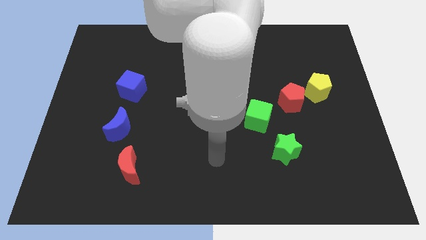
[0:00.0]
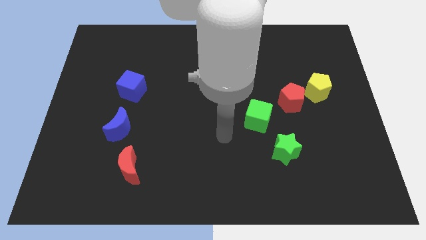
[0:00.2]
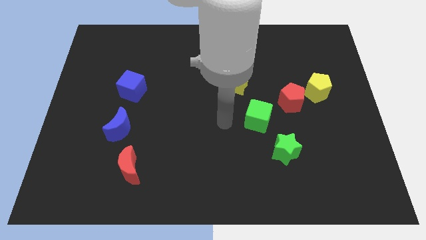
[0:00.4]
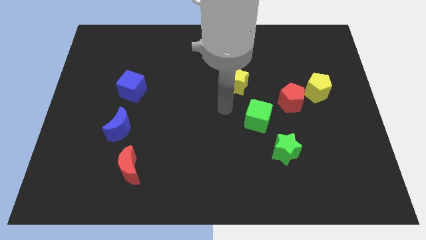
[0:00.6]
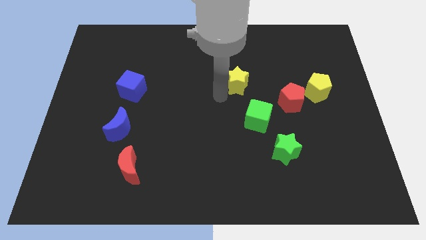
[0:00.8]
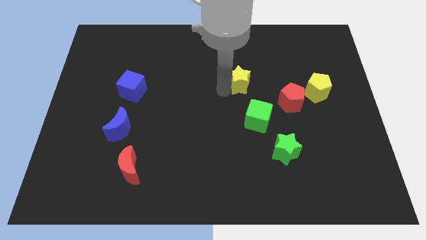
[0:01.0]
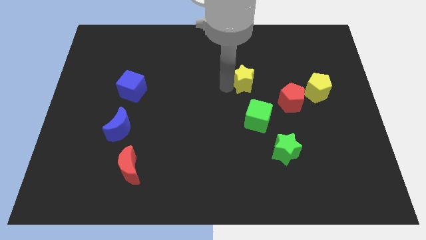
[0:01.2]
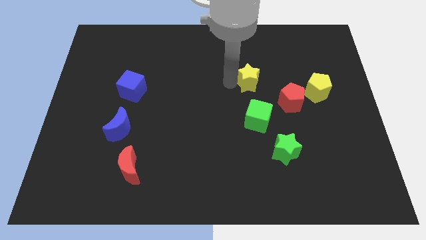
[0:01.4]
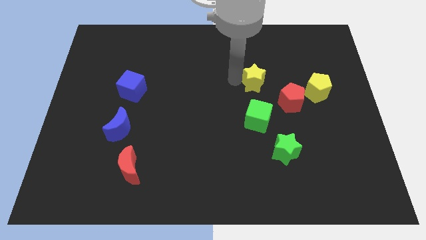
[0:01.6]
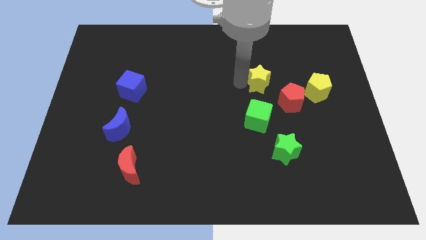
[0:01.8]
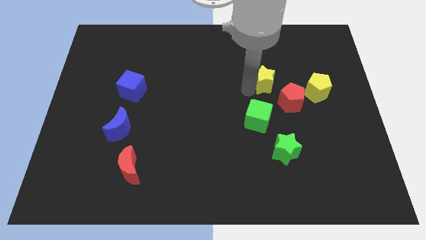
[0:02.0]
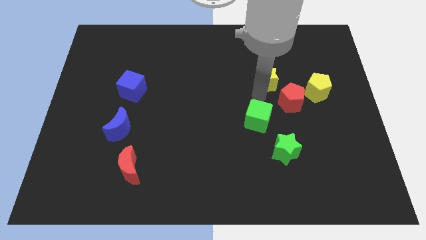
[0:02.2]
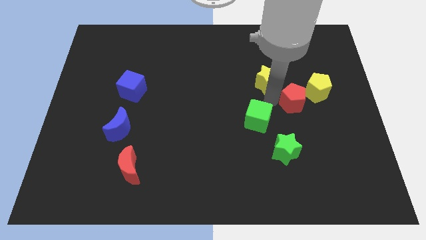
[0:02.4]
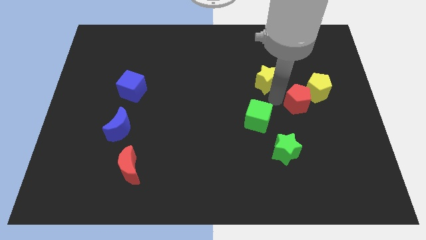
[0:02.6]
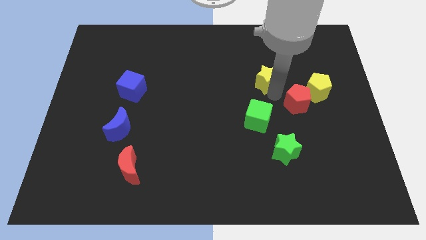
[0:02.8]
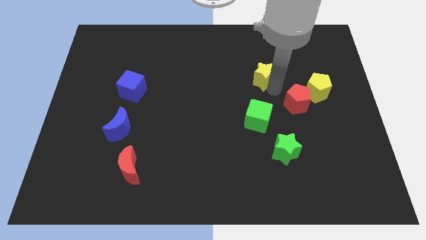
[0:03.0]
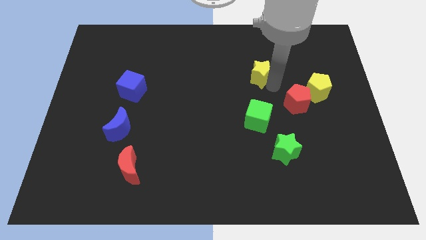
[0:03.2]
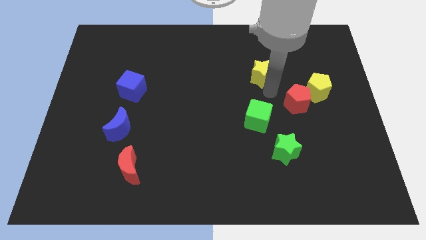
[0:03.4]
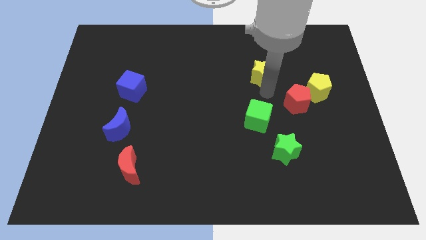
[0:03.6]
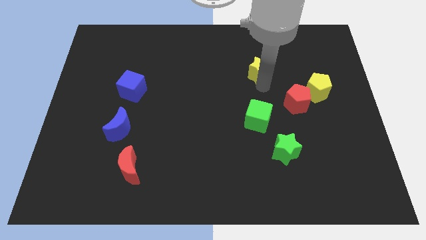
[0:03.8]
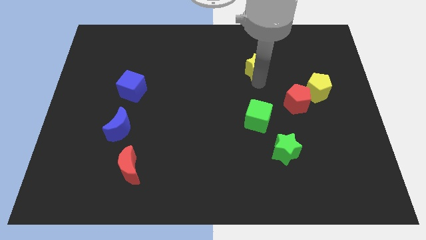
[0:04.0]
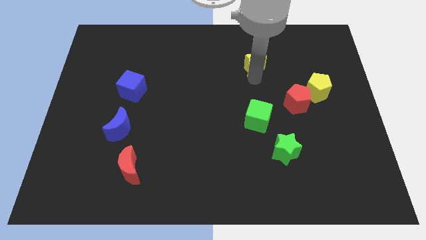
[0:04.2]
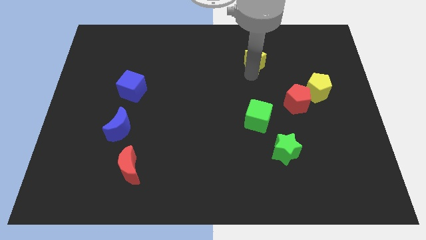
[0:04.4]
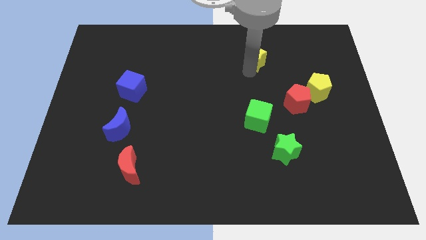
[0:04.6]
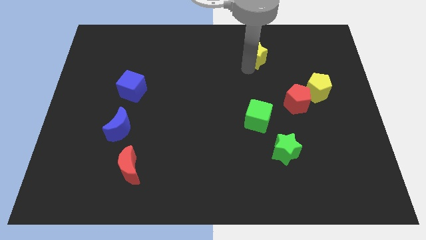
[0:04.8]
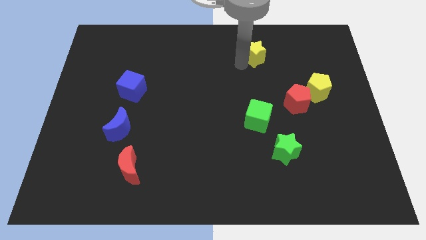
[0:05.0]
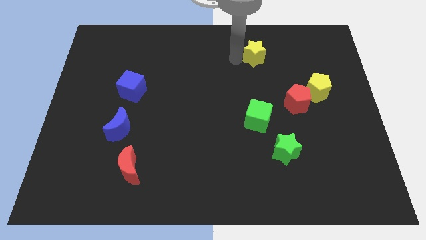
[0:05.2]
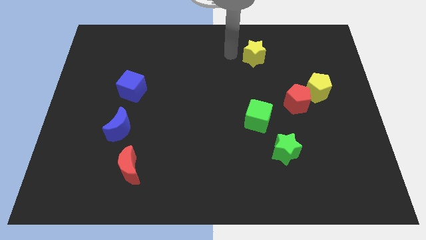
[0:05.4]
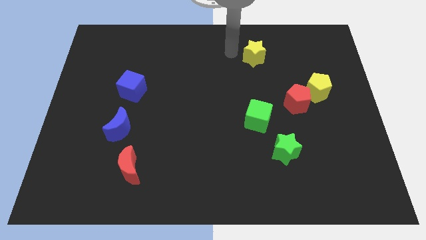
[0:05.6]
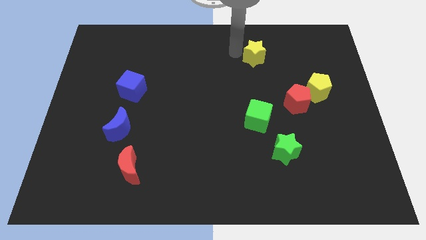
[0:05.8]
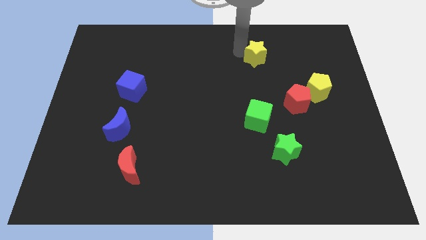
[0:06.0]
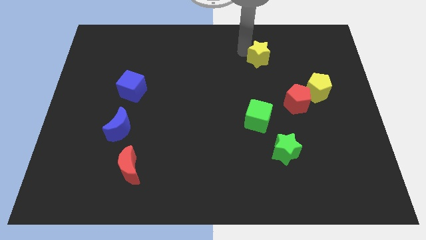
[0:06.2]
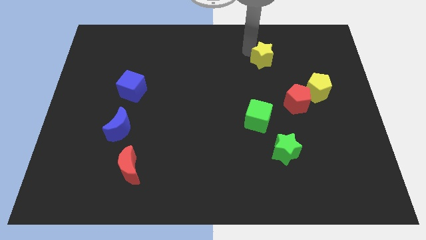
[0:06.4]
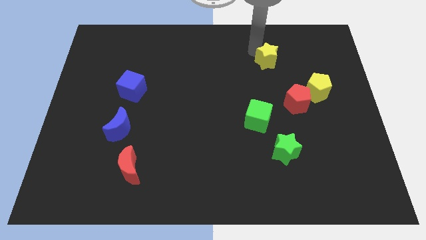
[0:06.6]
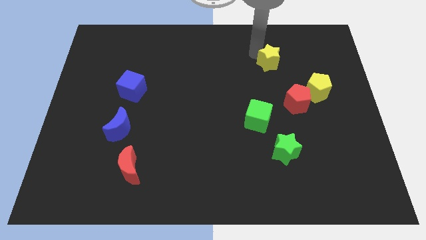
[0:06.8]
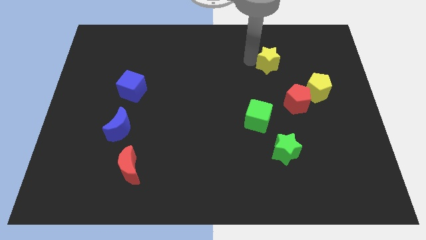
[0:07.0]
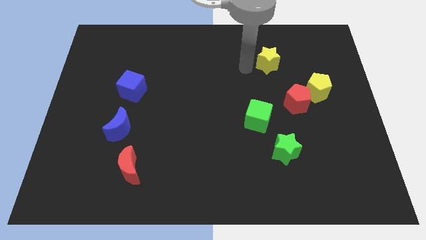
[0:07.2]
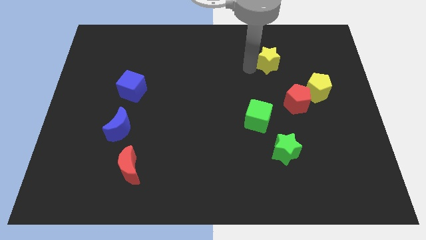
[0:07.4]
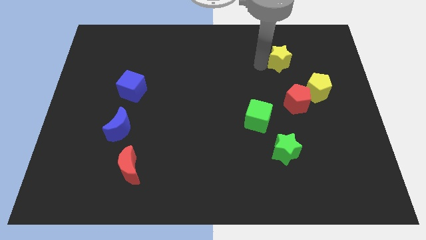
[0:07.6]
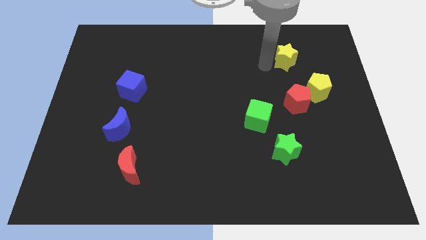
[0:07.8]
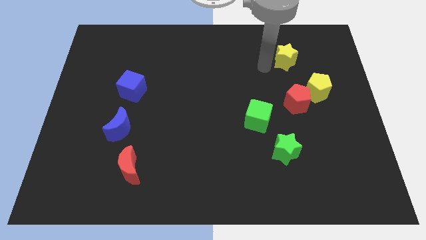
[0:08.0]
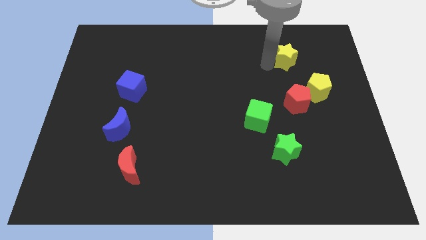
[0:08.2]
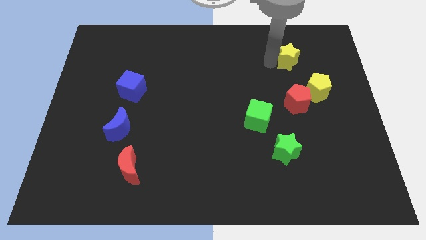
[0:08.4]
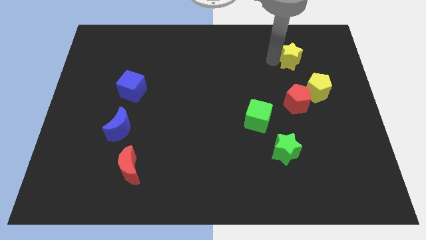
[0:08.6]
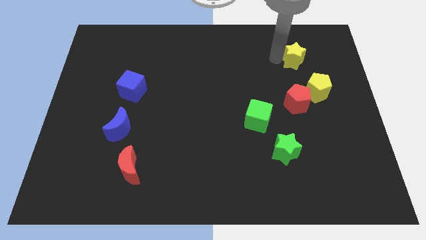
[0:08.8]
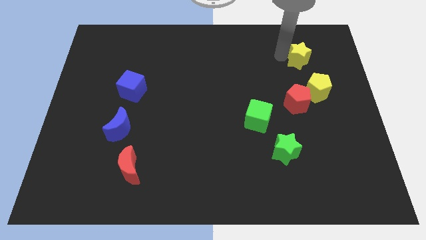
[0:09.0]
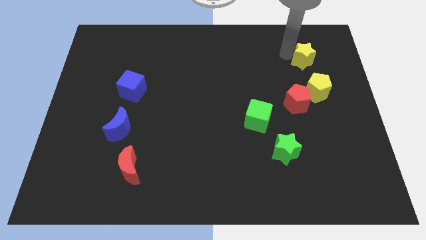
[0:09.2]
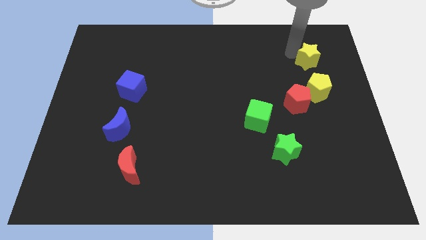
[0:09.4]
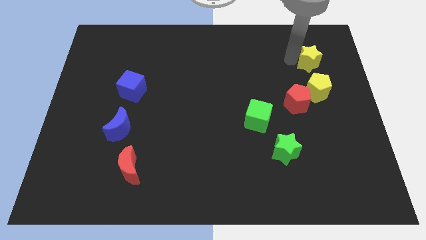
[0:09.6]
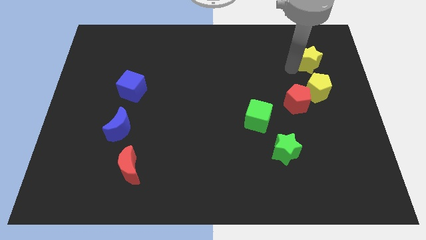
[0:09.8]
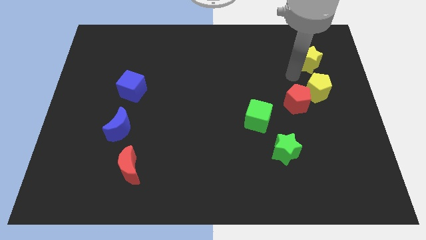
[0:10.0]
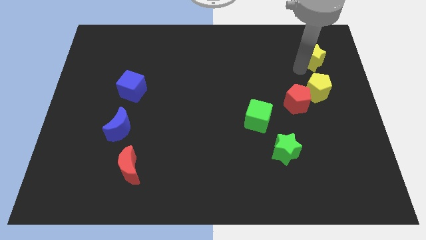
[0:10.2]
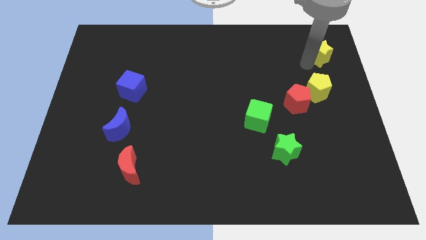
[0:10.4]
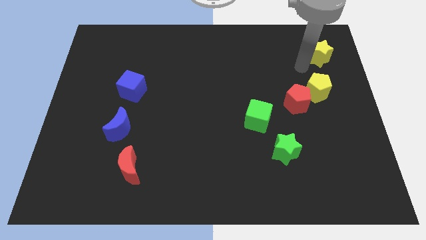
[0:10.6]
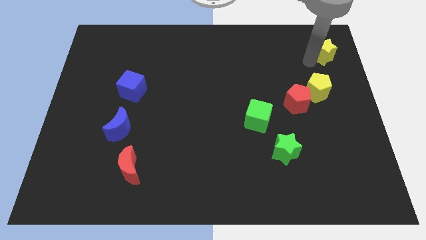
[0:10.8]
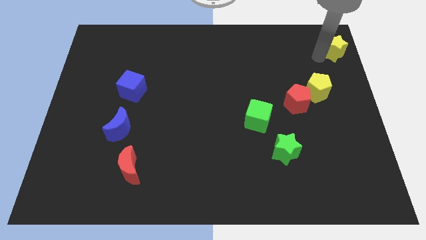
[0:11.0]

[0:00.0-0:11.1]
put the yellow star to the upper right corner

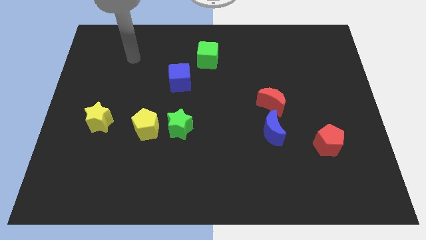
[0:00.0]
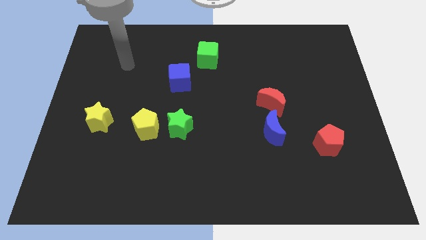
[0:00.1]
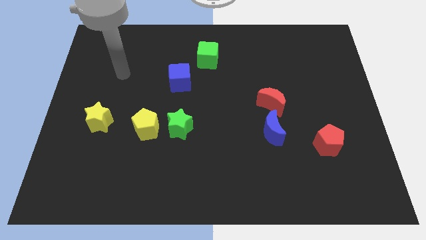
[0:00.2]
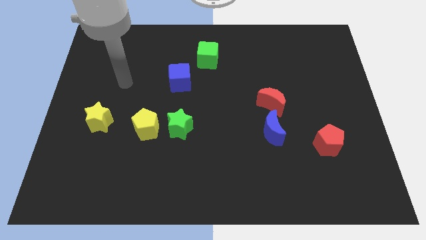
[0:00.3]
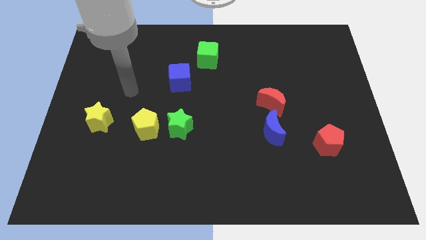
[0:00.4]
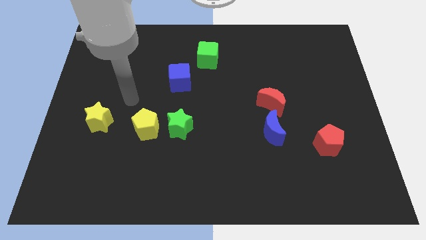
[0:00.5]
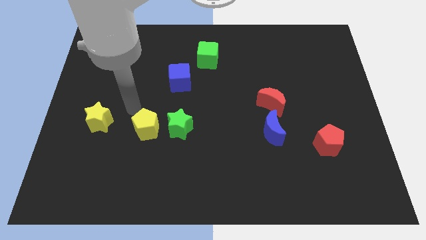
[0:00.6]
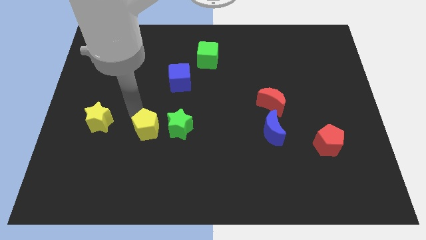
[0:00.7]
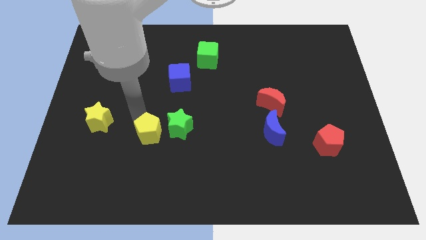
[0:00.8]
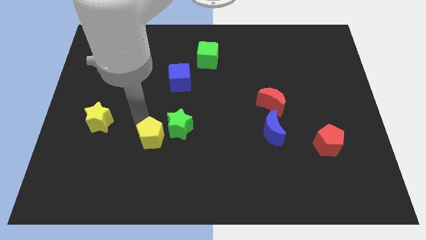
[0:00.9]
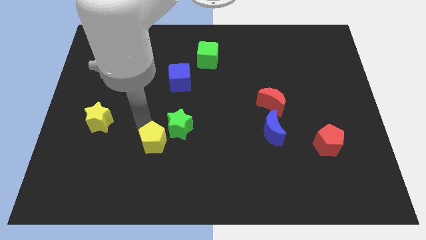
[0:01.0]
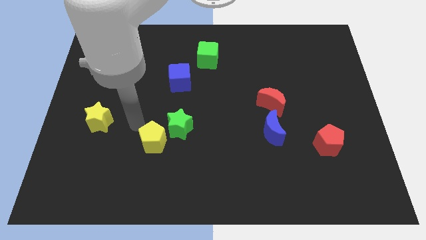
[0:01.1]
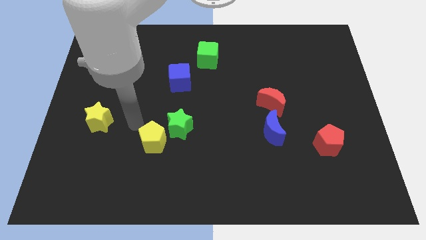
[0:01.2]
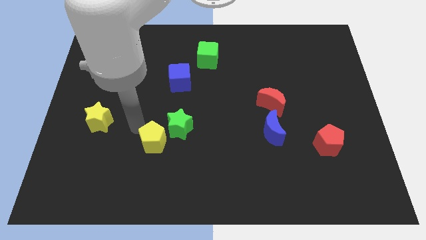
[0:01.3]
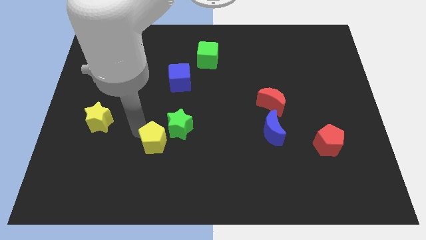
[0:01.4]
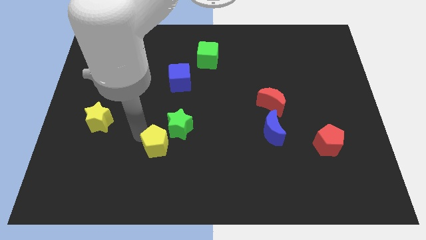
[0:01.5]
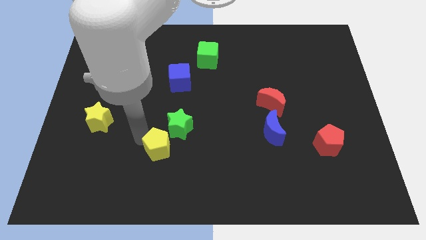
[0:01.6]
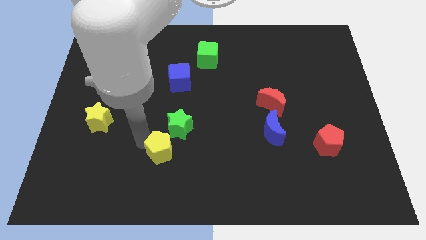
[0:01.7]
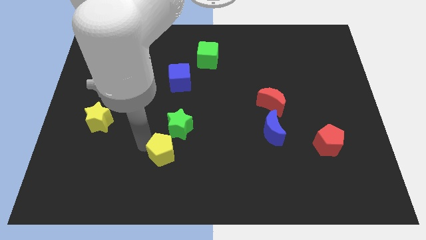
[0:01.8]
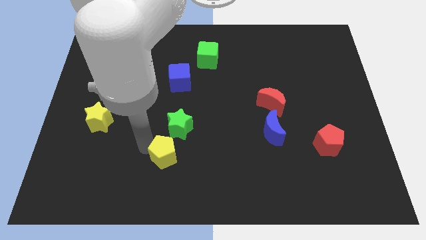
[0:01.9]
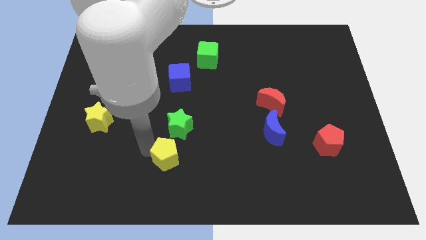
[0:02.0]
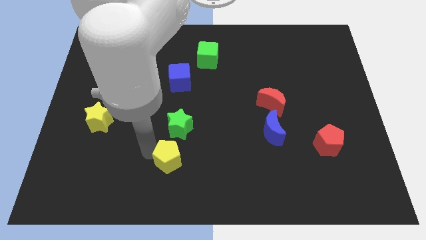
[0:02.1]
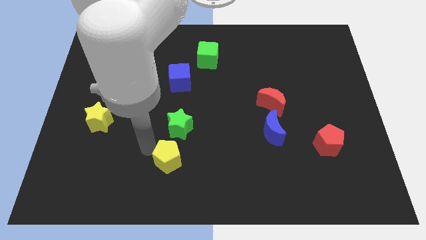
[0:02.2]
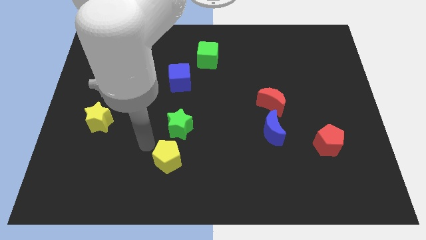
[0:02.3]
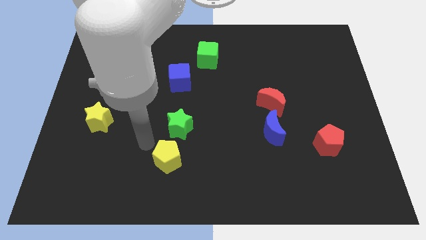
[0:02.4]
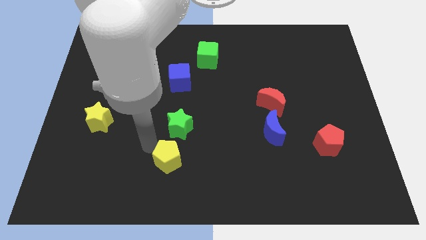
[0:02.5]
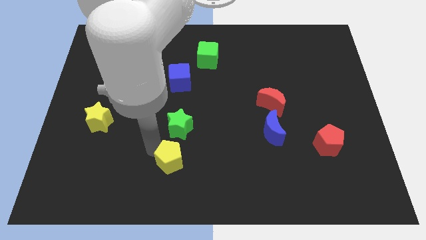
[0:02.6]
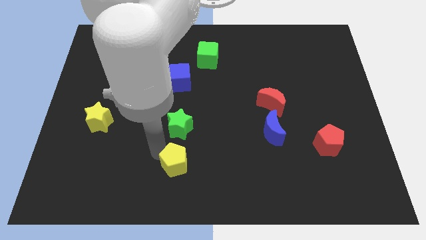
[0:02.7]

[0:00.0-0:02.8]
slide the yellow pentagon to the bottom side
